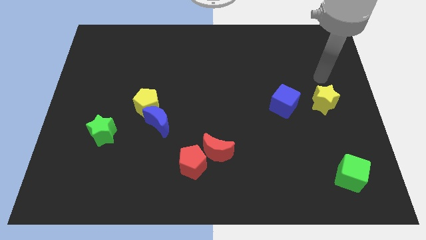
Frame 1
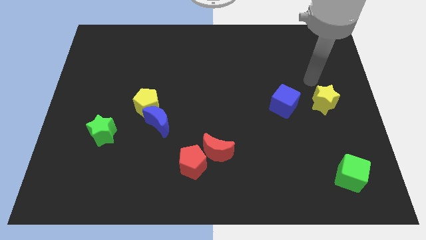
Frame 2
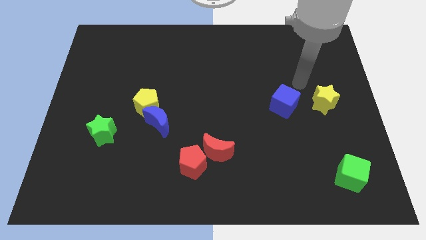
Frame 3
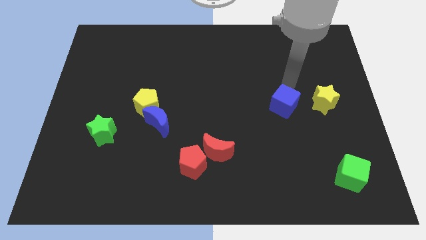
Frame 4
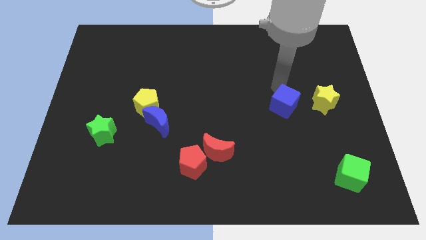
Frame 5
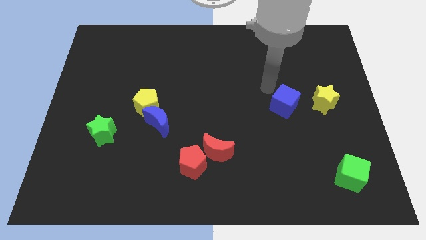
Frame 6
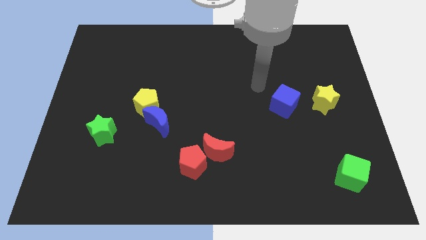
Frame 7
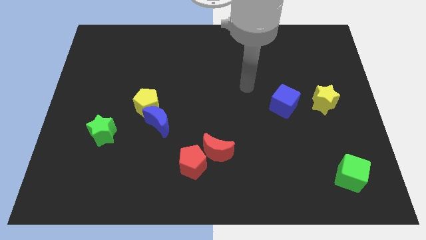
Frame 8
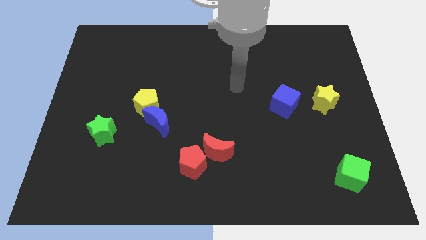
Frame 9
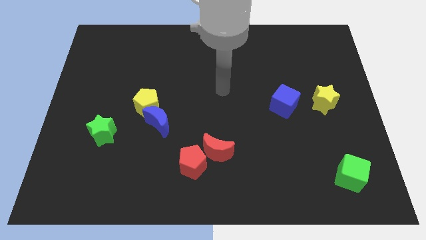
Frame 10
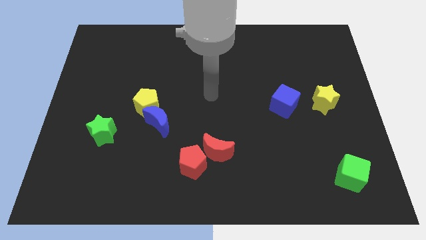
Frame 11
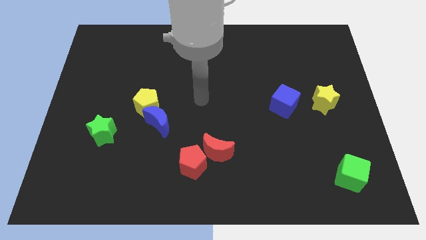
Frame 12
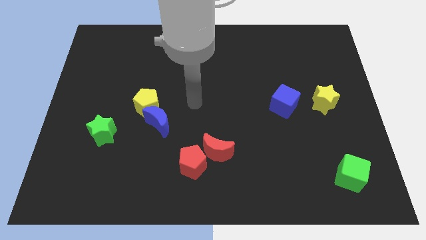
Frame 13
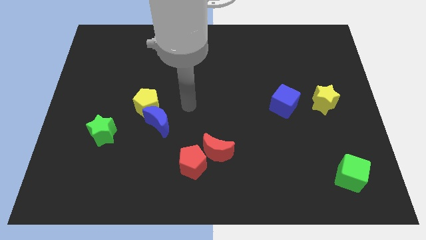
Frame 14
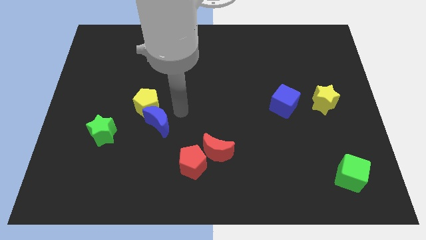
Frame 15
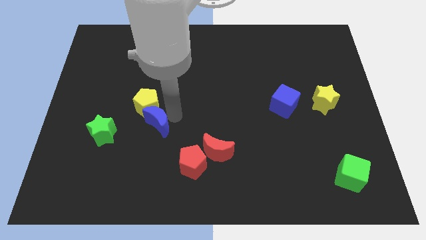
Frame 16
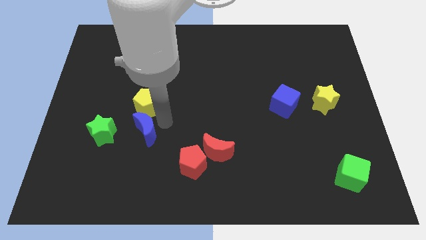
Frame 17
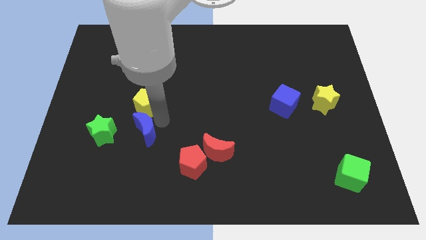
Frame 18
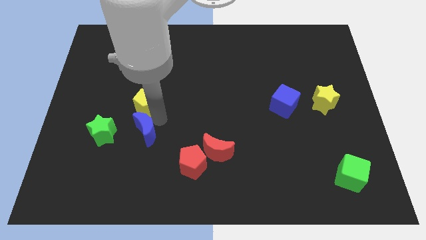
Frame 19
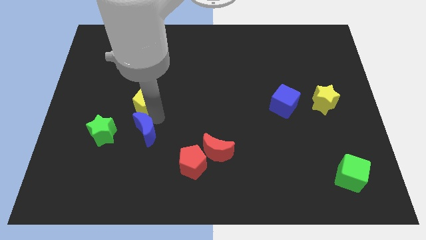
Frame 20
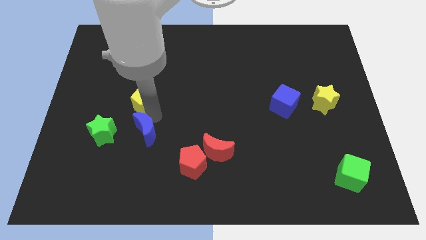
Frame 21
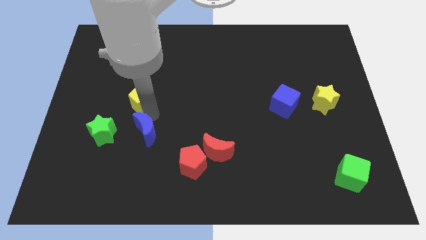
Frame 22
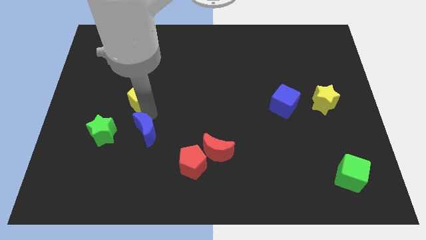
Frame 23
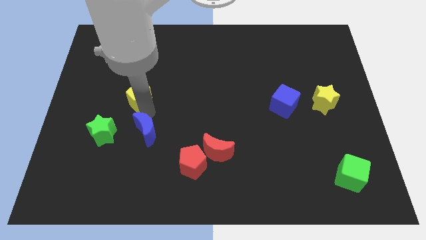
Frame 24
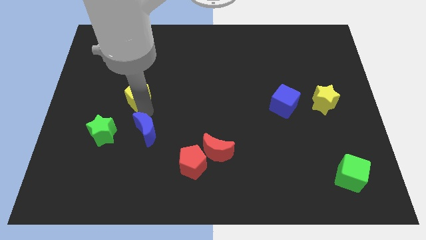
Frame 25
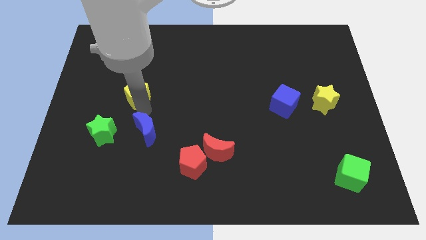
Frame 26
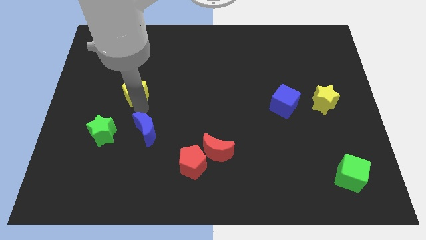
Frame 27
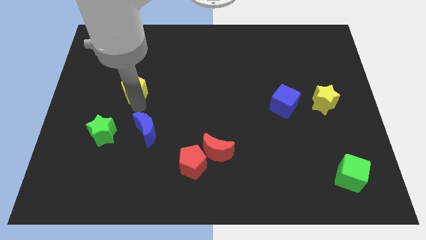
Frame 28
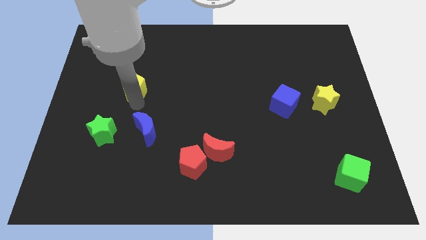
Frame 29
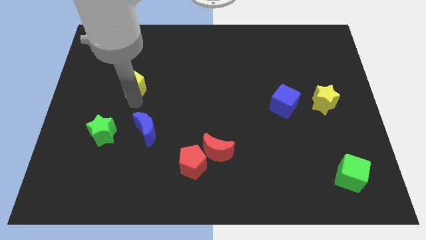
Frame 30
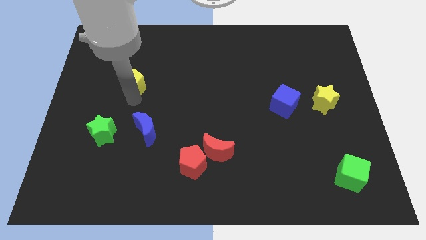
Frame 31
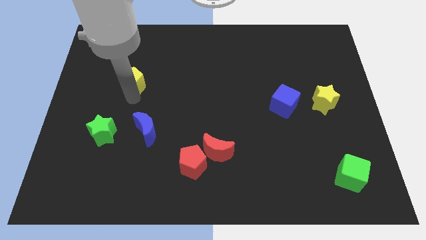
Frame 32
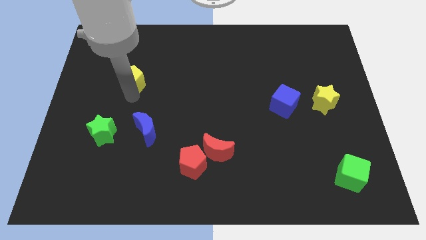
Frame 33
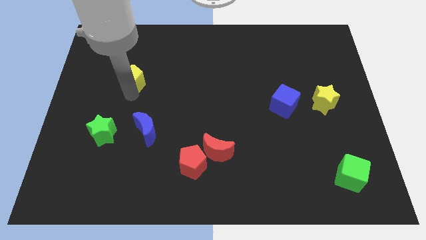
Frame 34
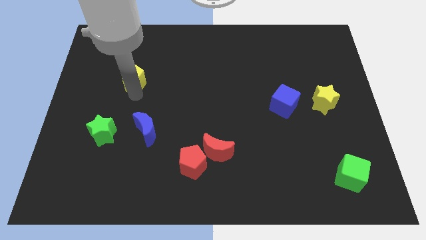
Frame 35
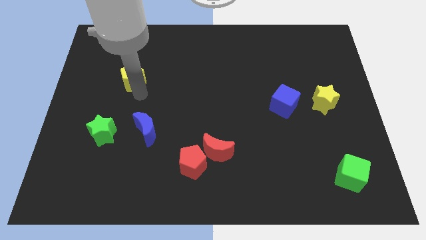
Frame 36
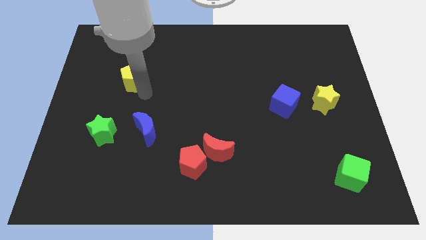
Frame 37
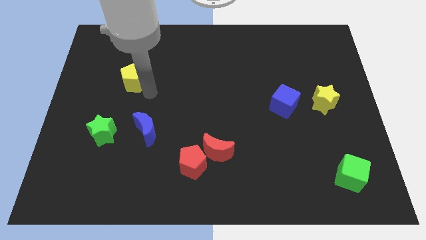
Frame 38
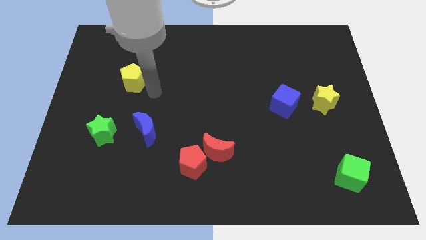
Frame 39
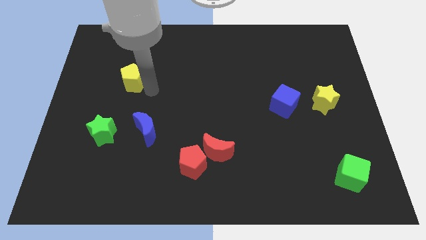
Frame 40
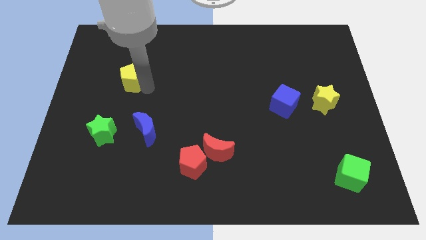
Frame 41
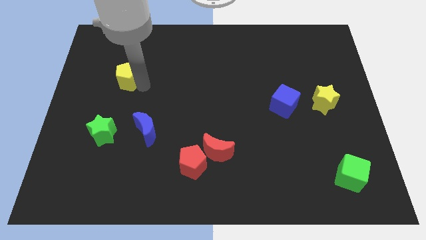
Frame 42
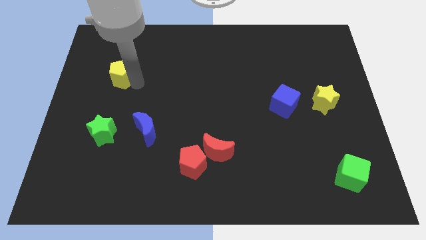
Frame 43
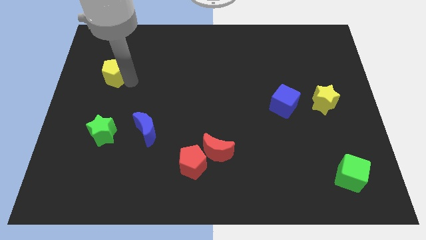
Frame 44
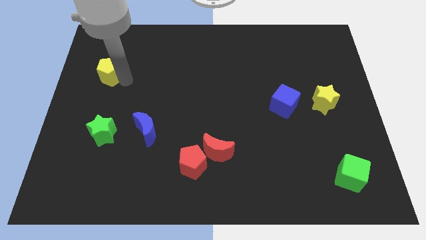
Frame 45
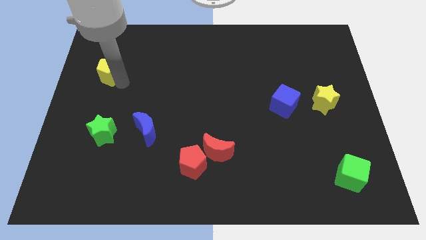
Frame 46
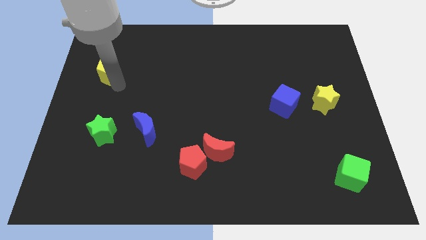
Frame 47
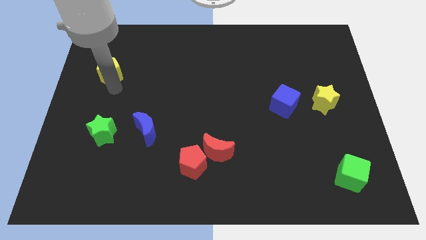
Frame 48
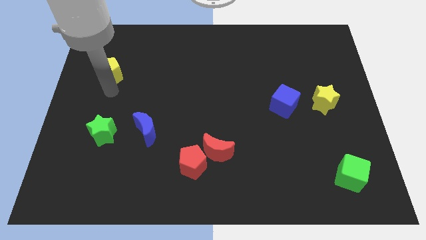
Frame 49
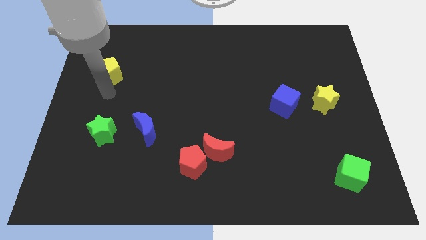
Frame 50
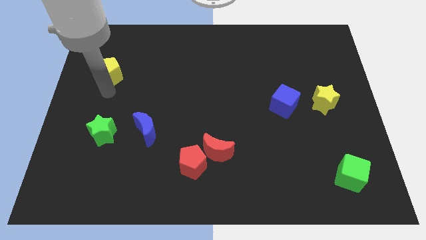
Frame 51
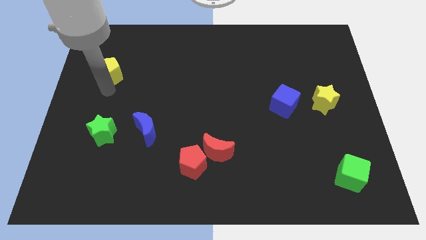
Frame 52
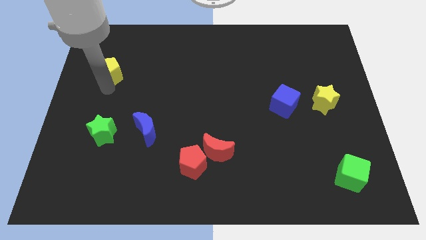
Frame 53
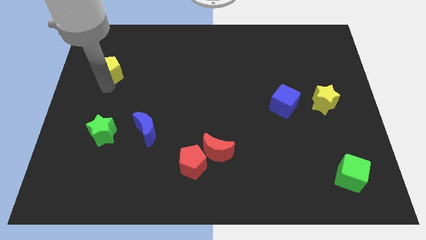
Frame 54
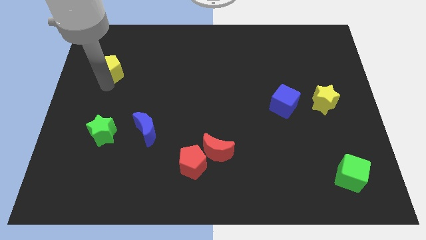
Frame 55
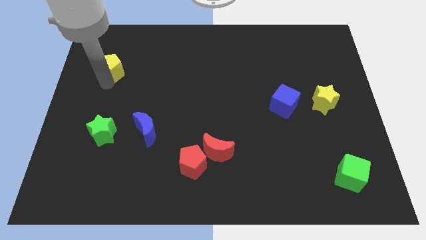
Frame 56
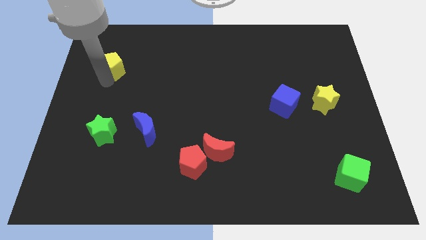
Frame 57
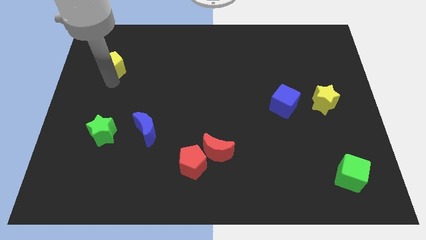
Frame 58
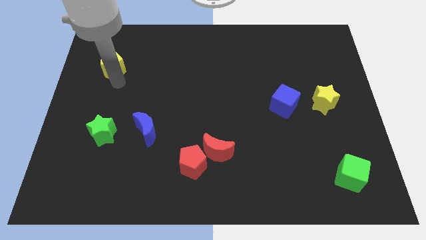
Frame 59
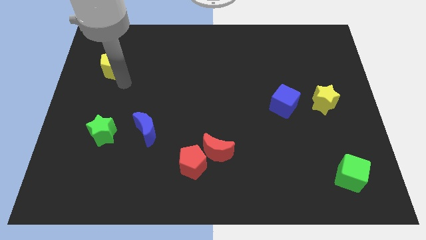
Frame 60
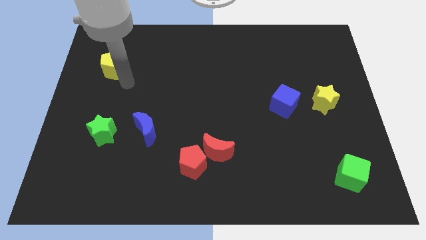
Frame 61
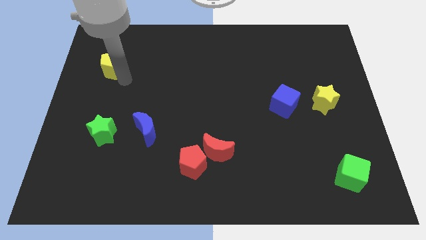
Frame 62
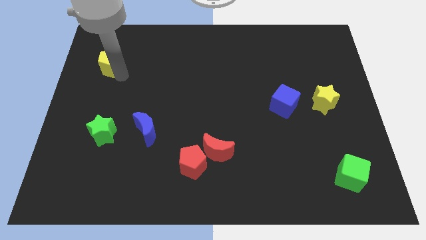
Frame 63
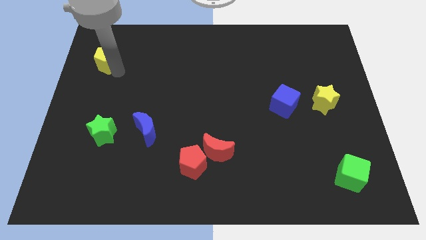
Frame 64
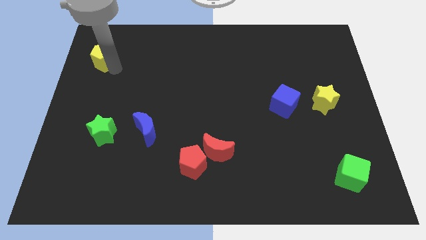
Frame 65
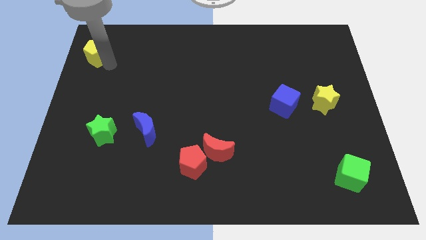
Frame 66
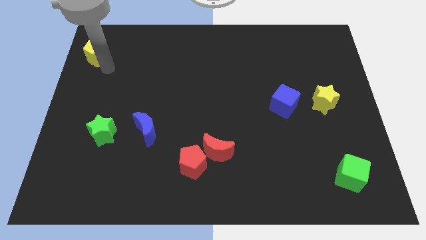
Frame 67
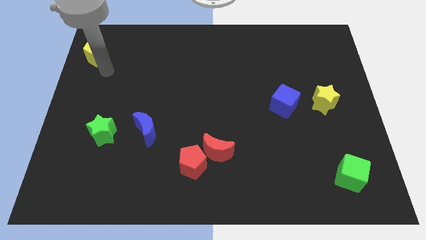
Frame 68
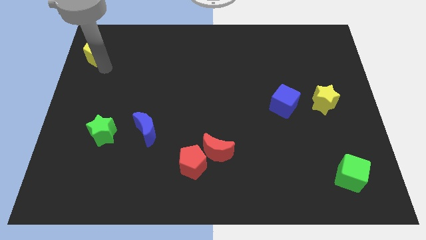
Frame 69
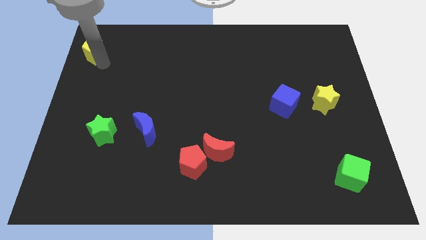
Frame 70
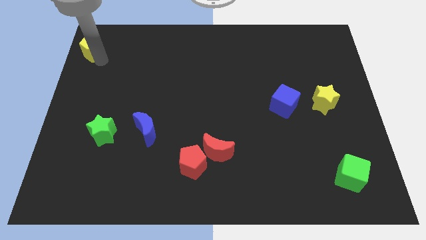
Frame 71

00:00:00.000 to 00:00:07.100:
move the yellow pentagon to the top left corner
